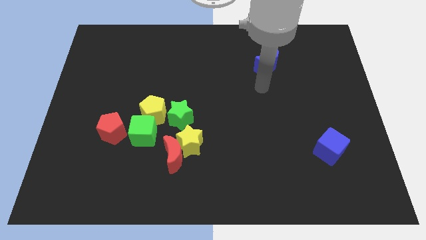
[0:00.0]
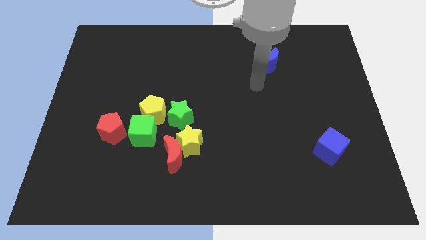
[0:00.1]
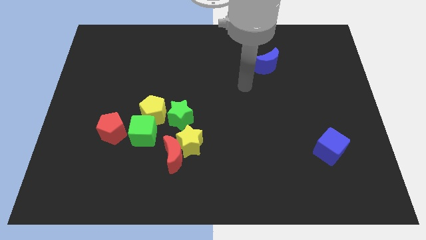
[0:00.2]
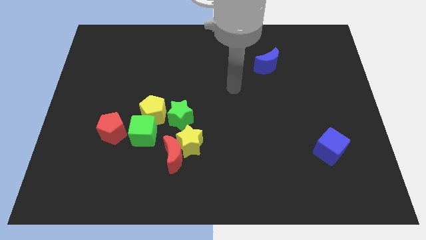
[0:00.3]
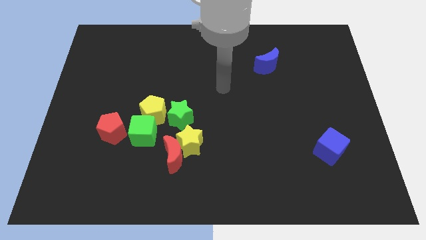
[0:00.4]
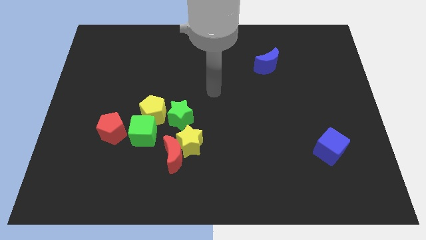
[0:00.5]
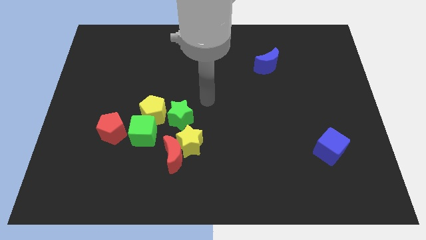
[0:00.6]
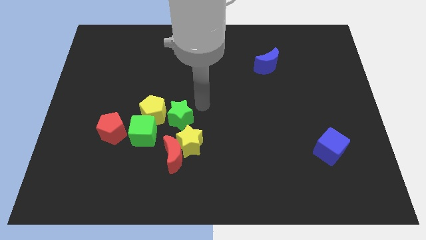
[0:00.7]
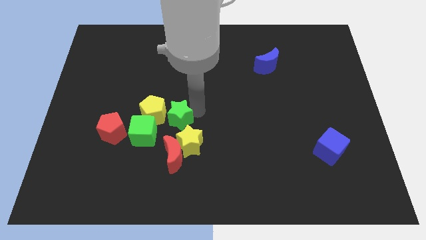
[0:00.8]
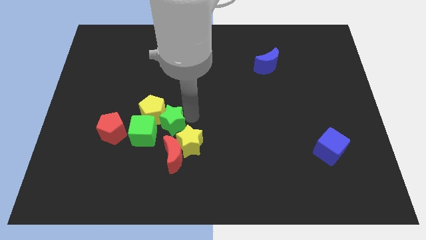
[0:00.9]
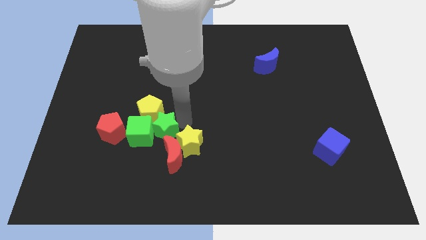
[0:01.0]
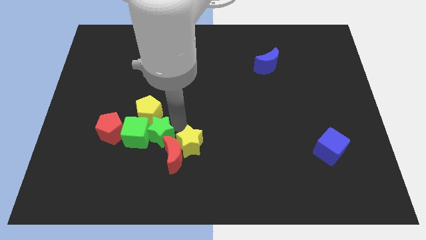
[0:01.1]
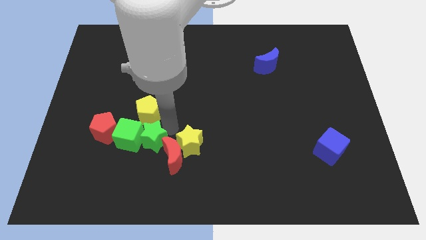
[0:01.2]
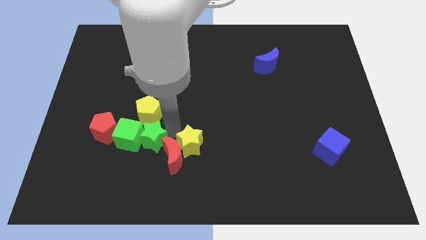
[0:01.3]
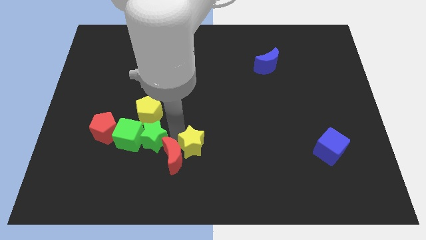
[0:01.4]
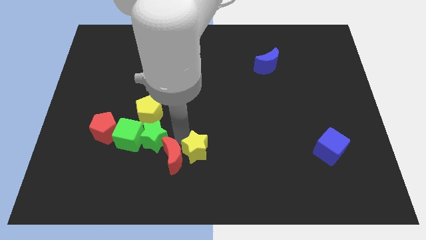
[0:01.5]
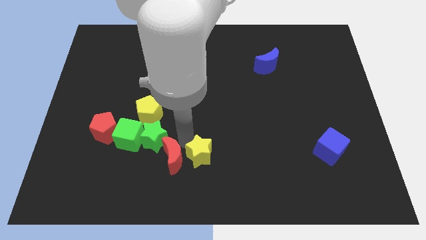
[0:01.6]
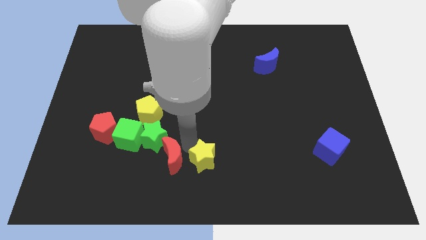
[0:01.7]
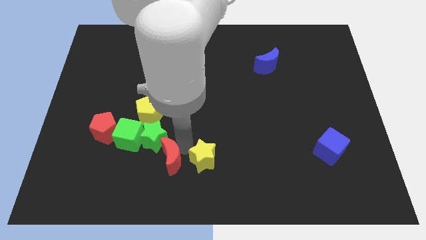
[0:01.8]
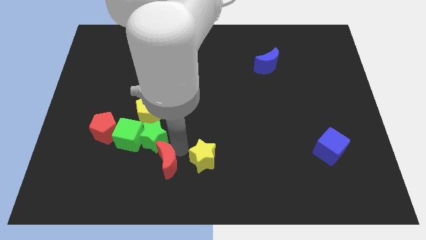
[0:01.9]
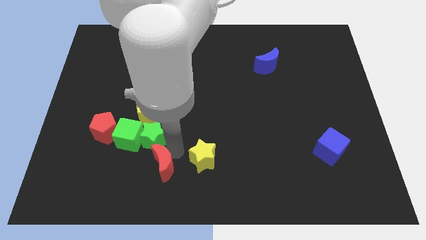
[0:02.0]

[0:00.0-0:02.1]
pull the yellow star apart from the red moon and green star

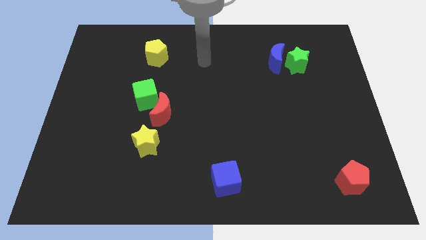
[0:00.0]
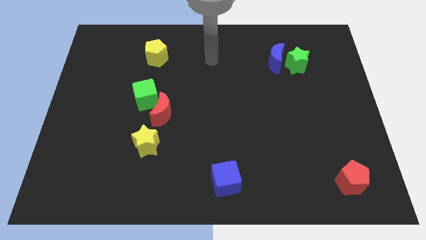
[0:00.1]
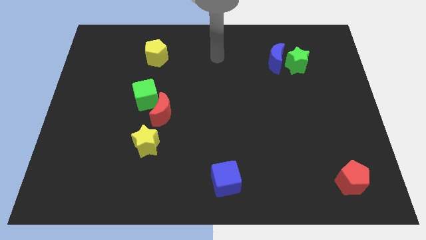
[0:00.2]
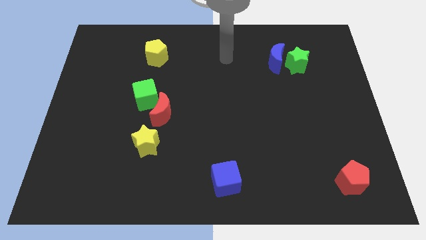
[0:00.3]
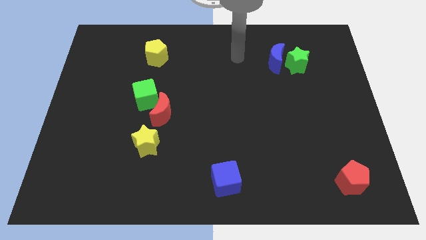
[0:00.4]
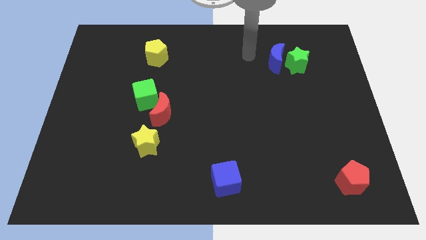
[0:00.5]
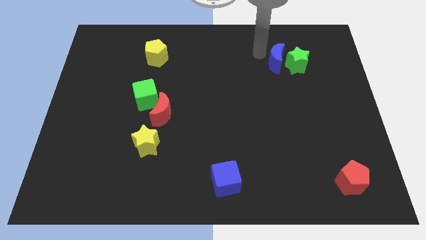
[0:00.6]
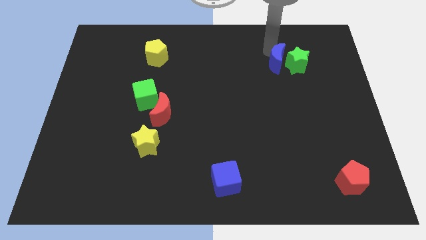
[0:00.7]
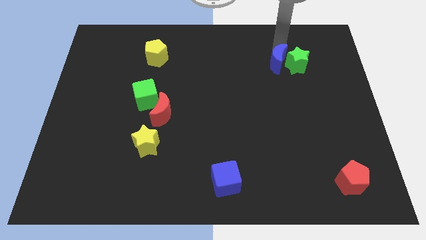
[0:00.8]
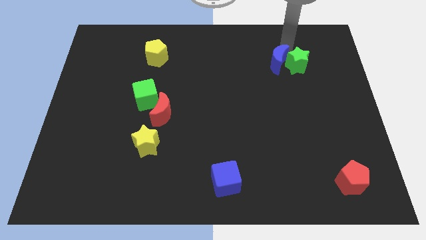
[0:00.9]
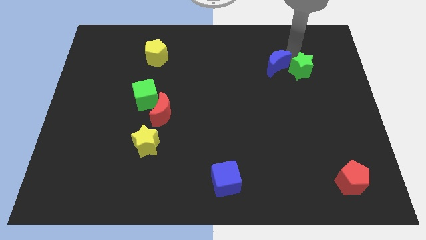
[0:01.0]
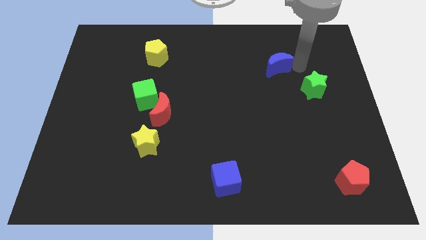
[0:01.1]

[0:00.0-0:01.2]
separate the blue moon from the green star

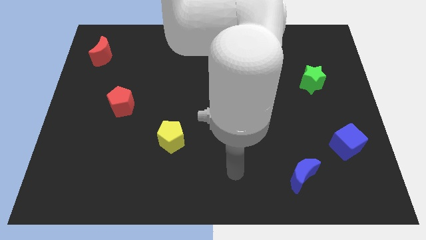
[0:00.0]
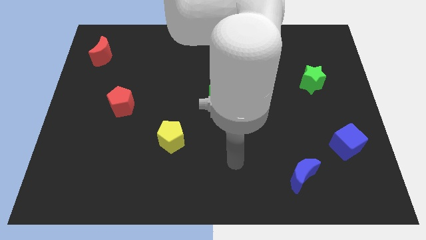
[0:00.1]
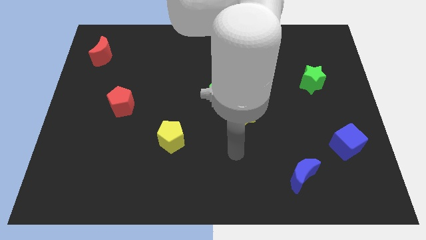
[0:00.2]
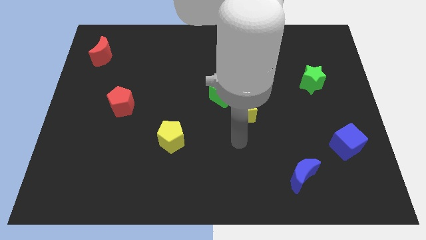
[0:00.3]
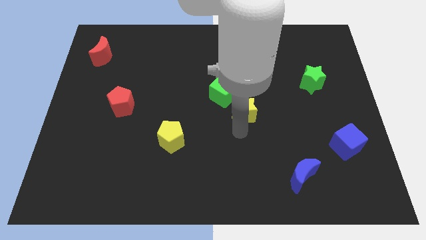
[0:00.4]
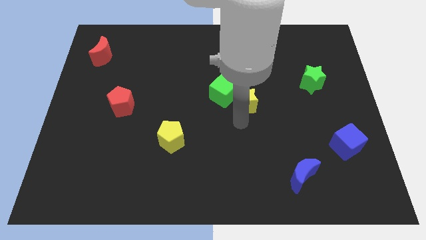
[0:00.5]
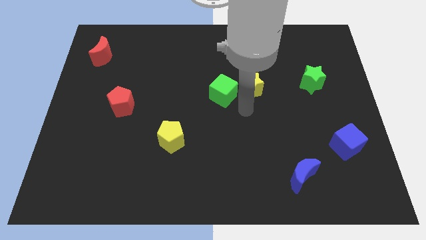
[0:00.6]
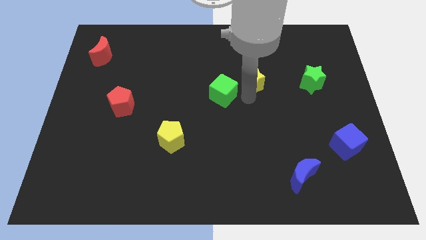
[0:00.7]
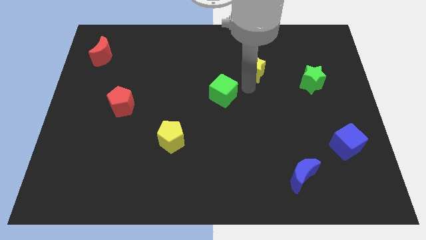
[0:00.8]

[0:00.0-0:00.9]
pull the green cube apart from the yellow star

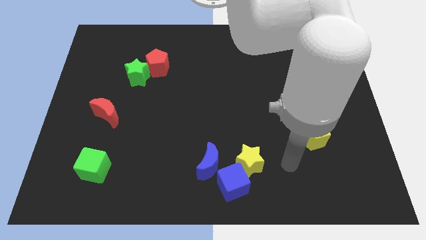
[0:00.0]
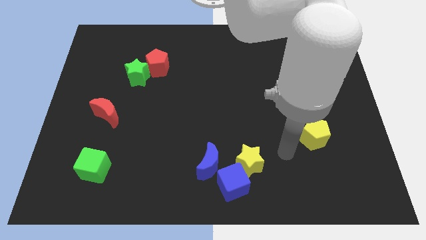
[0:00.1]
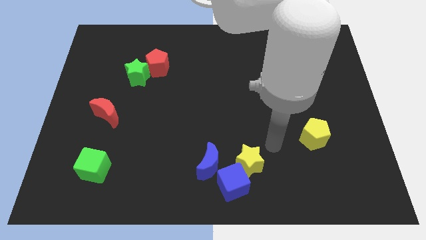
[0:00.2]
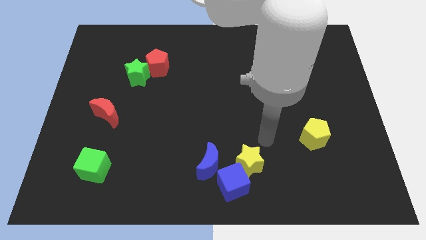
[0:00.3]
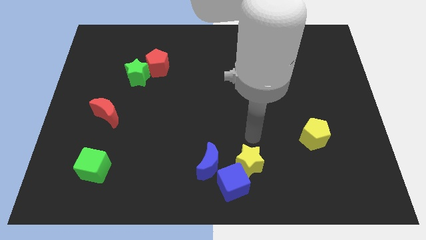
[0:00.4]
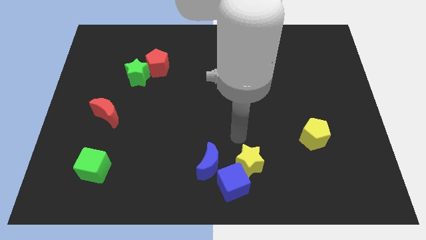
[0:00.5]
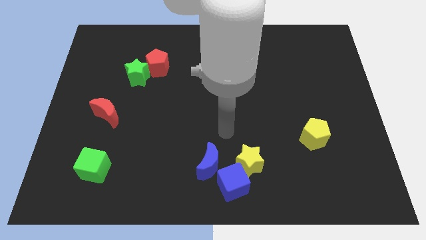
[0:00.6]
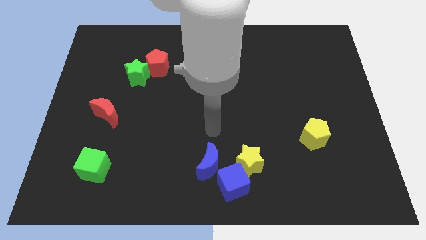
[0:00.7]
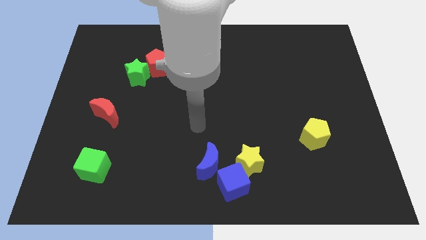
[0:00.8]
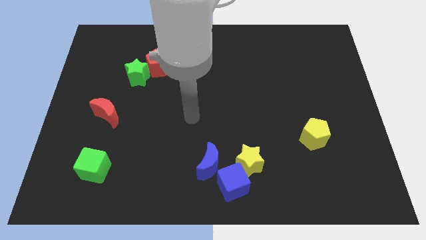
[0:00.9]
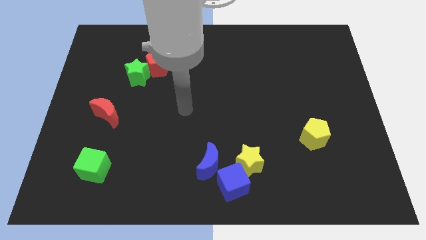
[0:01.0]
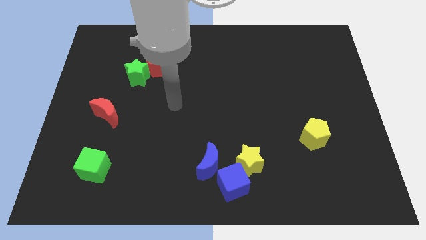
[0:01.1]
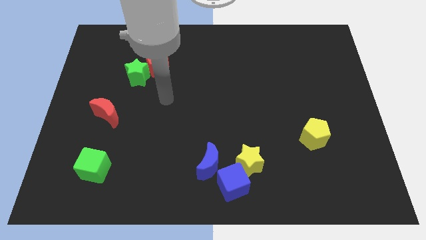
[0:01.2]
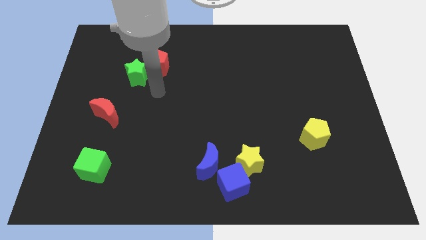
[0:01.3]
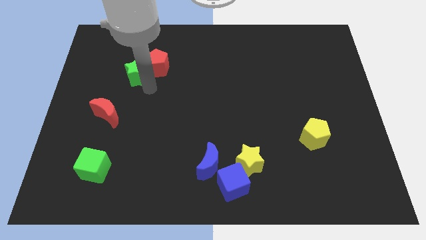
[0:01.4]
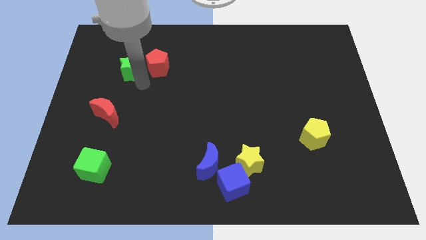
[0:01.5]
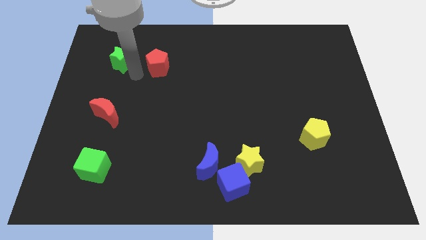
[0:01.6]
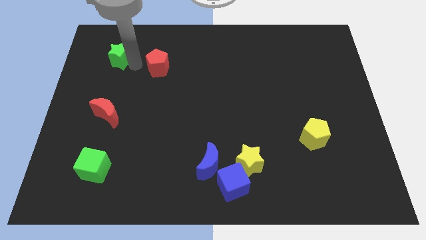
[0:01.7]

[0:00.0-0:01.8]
move the red pentagon away from the green star

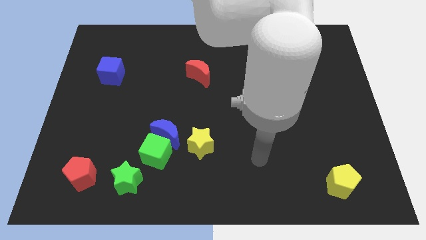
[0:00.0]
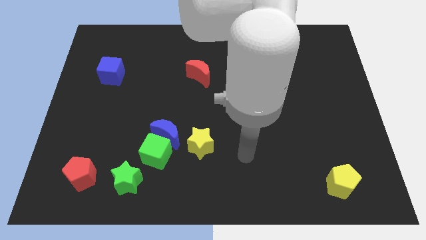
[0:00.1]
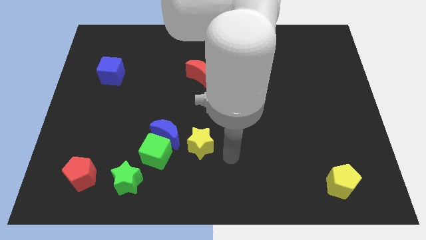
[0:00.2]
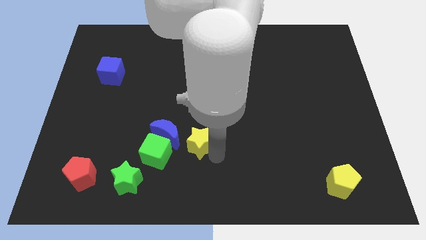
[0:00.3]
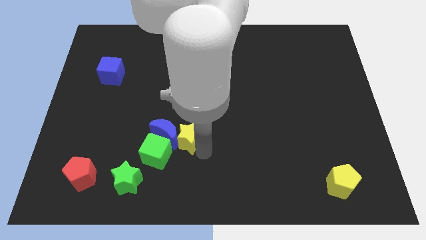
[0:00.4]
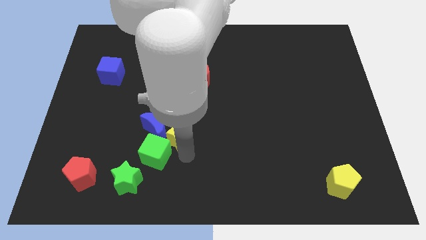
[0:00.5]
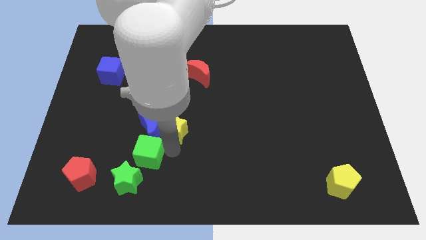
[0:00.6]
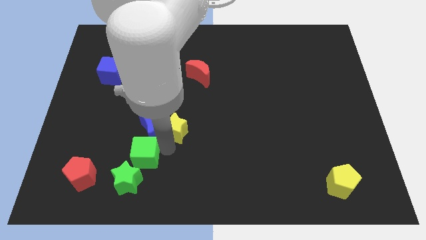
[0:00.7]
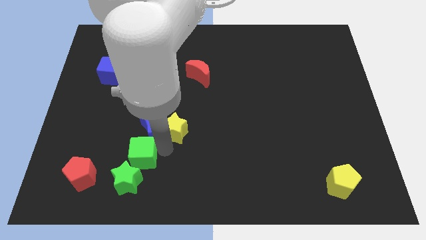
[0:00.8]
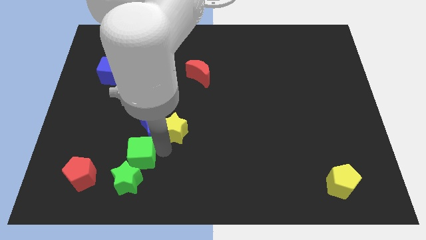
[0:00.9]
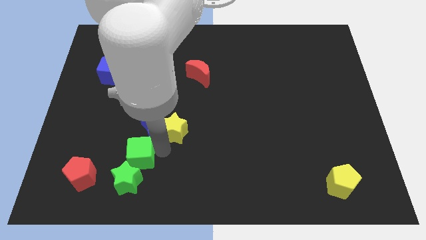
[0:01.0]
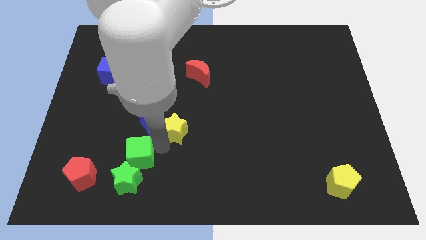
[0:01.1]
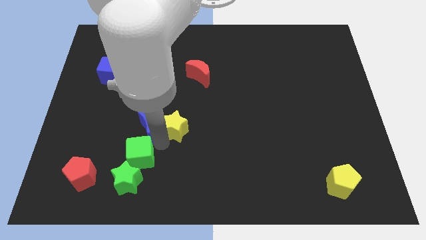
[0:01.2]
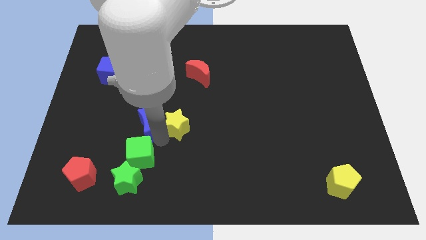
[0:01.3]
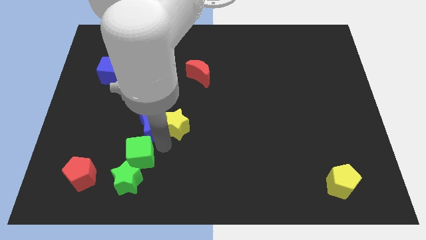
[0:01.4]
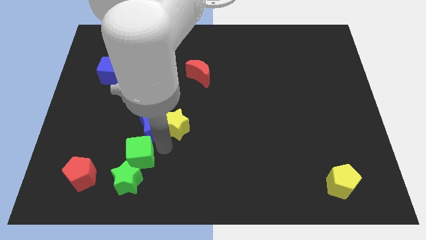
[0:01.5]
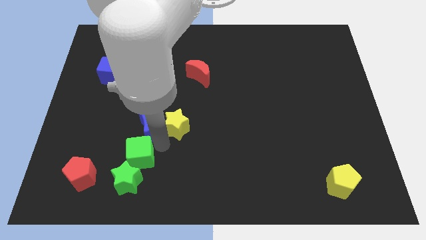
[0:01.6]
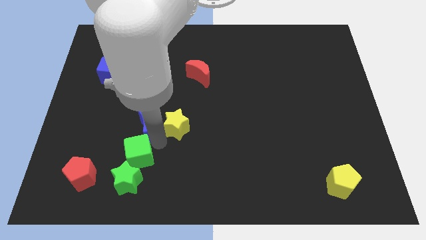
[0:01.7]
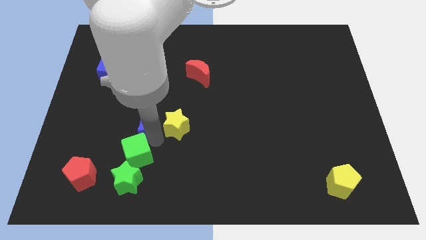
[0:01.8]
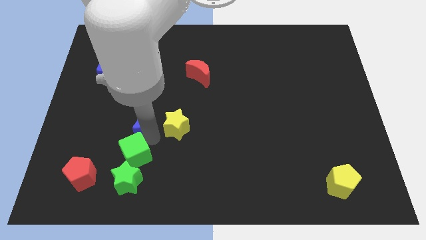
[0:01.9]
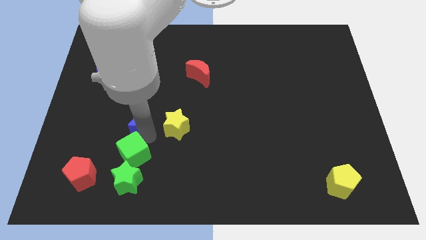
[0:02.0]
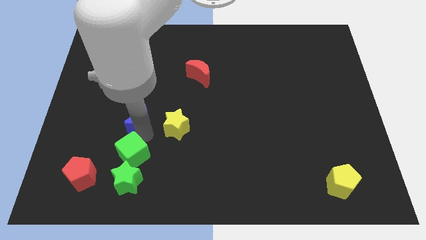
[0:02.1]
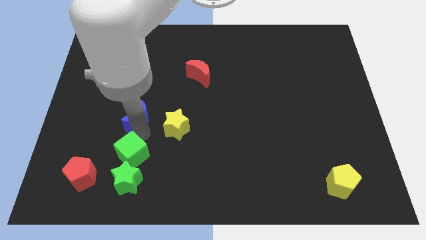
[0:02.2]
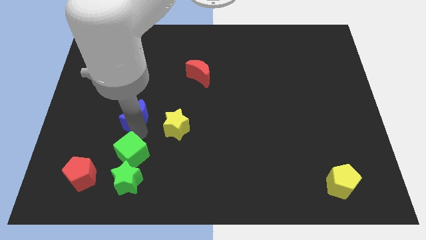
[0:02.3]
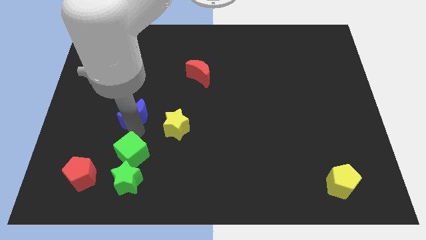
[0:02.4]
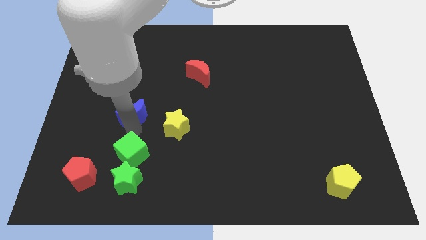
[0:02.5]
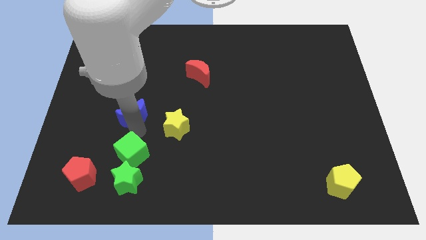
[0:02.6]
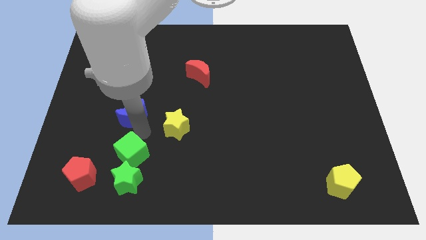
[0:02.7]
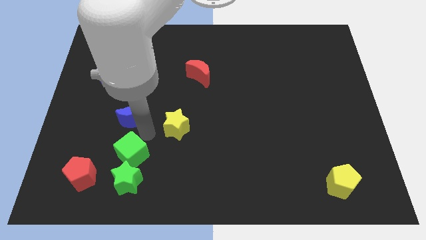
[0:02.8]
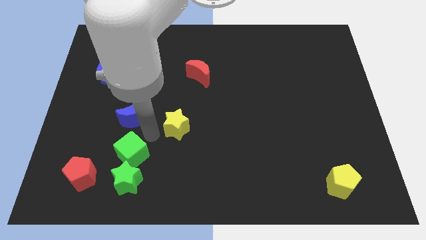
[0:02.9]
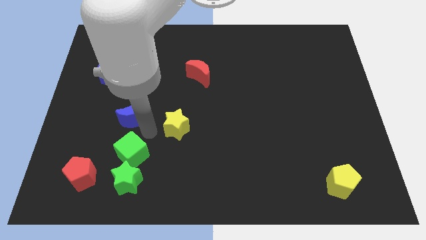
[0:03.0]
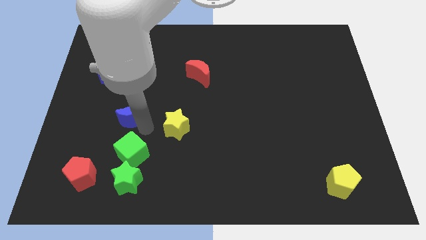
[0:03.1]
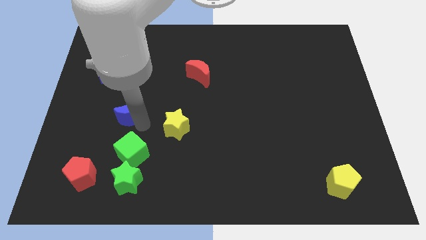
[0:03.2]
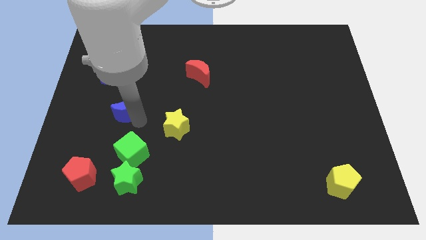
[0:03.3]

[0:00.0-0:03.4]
pull the blue moon apart from the green cube and yellow star
